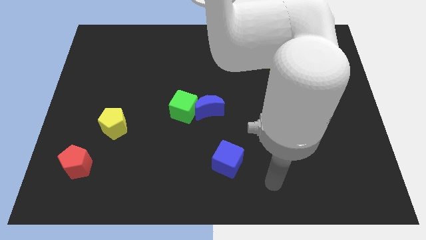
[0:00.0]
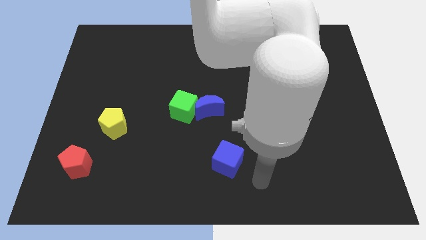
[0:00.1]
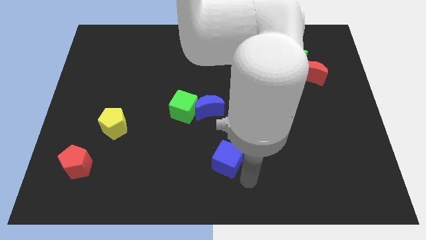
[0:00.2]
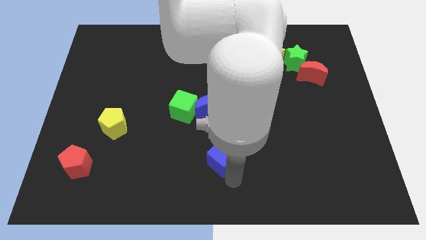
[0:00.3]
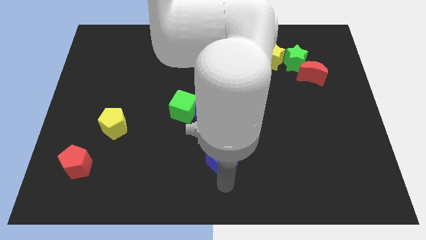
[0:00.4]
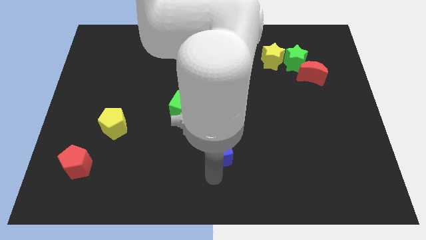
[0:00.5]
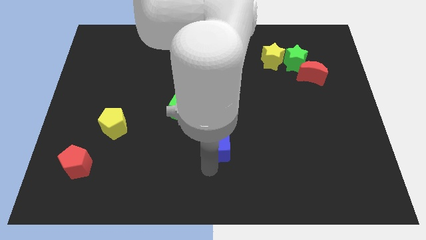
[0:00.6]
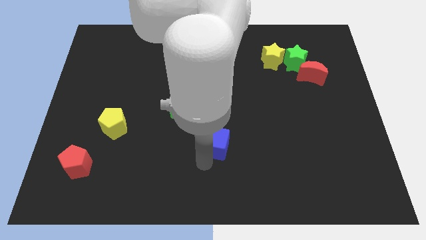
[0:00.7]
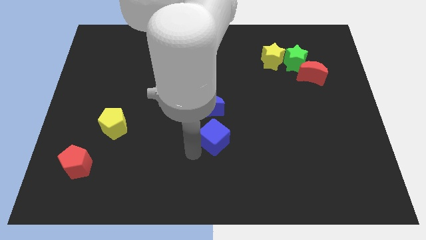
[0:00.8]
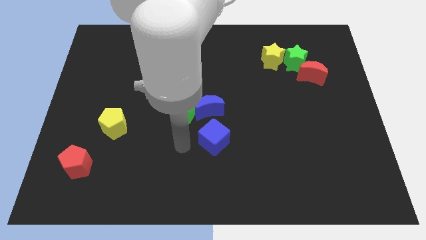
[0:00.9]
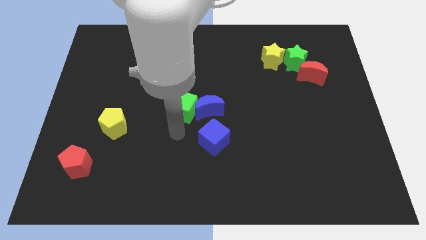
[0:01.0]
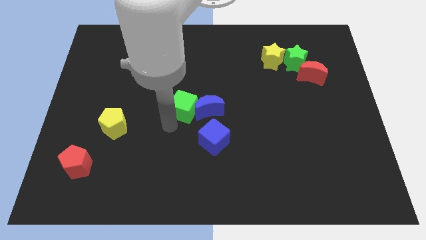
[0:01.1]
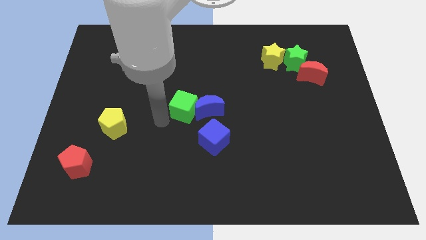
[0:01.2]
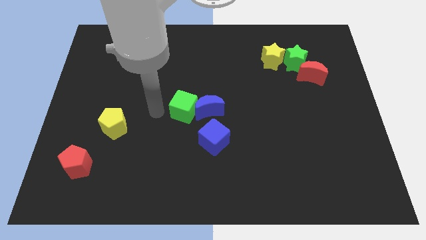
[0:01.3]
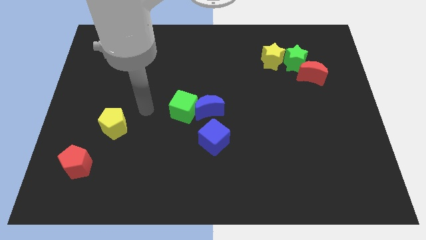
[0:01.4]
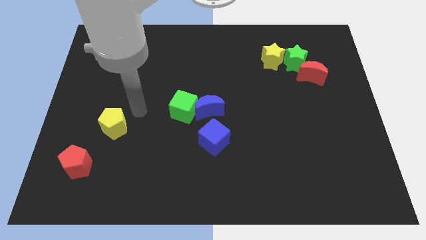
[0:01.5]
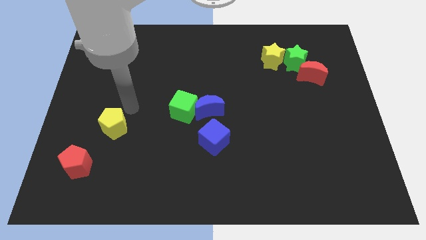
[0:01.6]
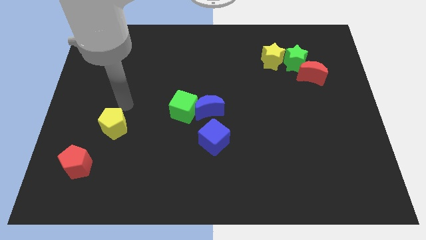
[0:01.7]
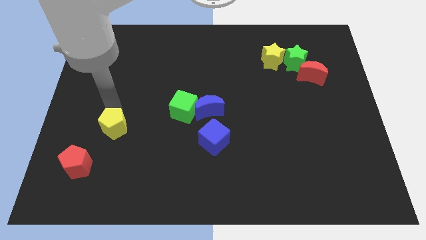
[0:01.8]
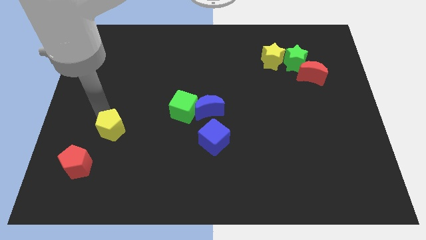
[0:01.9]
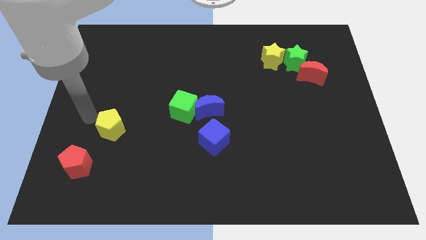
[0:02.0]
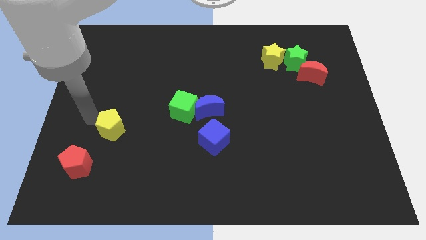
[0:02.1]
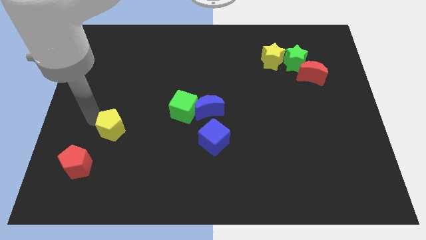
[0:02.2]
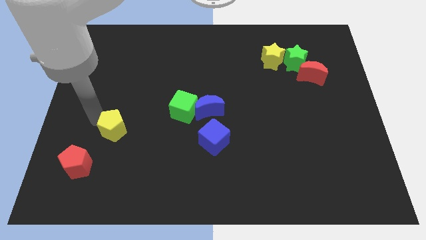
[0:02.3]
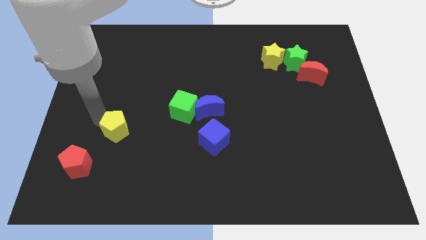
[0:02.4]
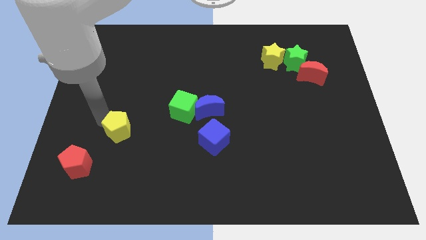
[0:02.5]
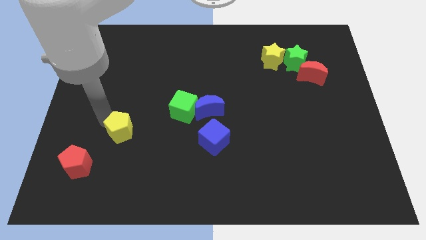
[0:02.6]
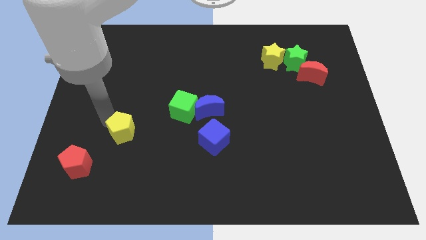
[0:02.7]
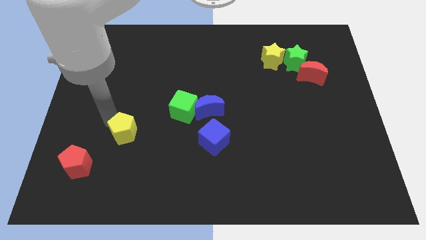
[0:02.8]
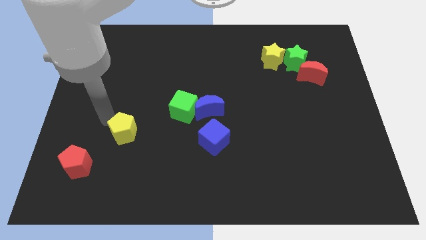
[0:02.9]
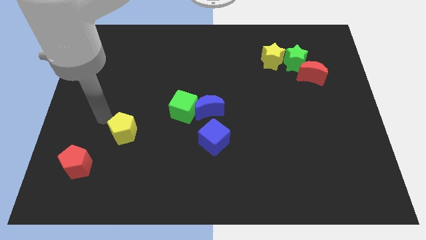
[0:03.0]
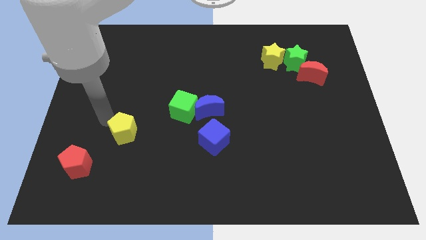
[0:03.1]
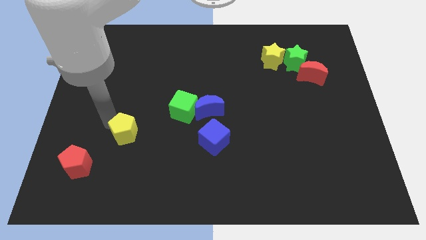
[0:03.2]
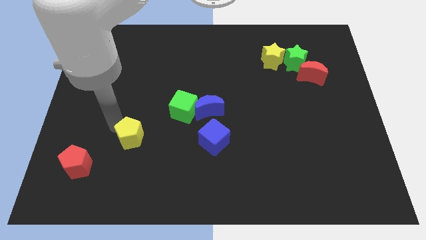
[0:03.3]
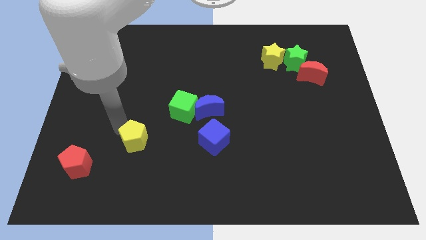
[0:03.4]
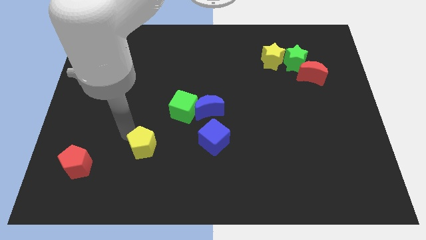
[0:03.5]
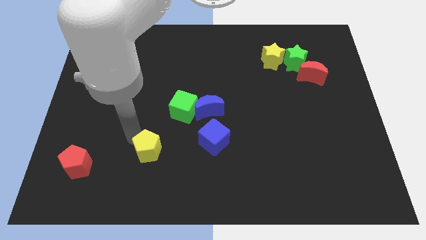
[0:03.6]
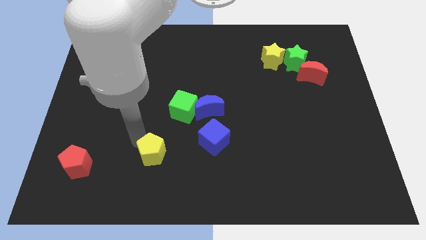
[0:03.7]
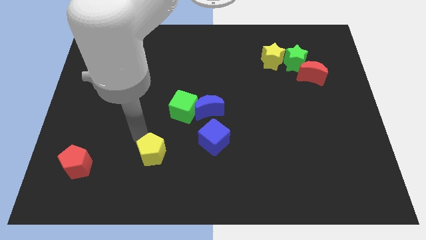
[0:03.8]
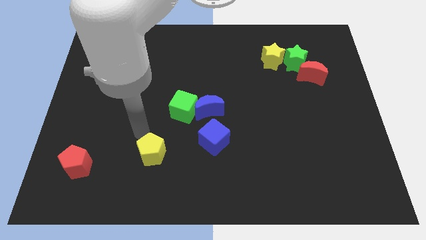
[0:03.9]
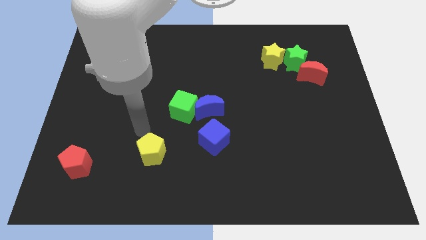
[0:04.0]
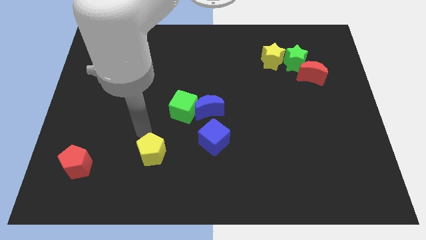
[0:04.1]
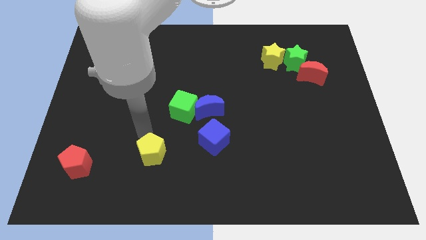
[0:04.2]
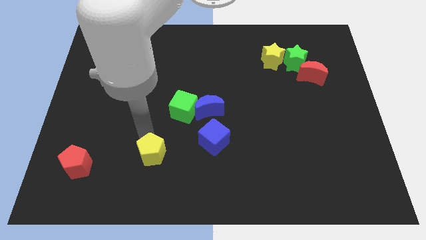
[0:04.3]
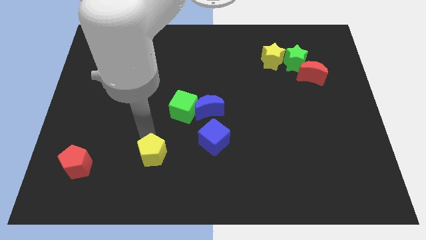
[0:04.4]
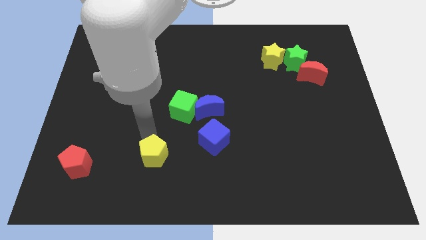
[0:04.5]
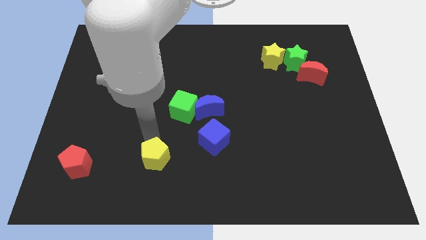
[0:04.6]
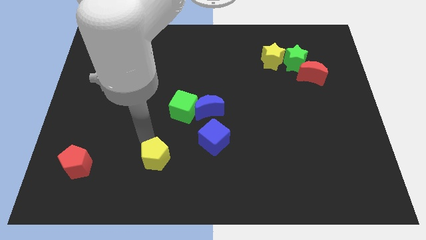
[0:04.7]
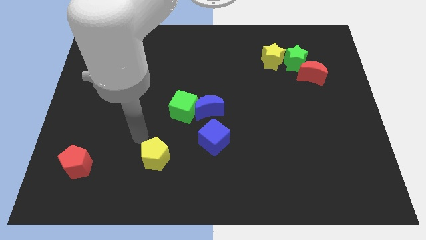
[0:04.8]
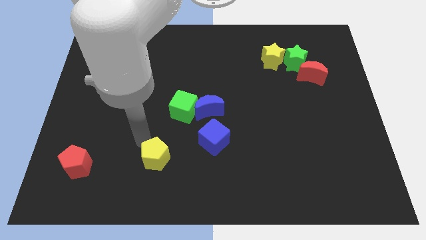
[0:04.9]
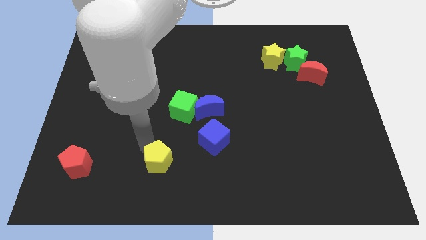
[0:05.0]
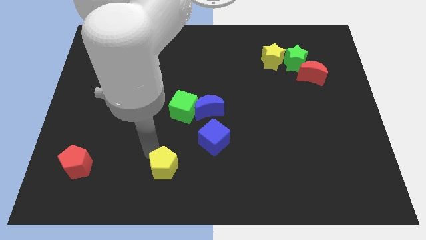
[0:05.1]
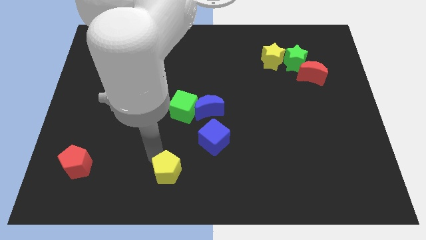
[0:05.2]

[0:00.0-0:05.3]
put the yellow pentagon to the bottom side

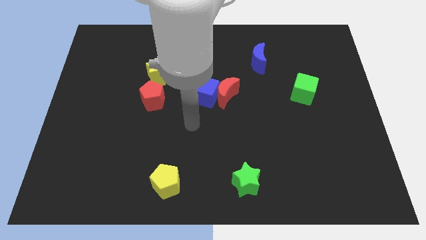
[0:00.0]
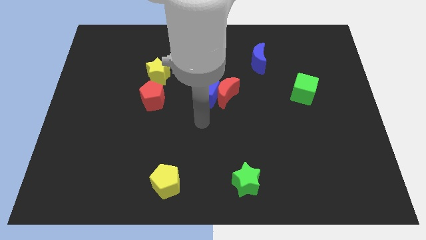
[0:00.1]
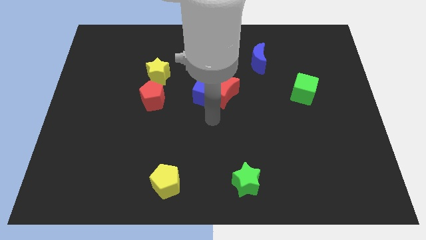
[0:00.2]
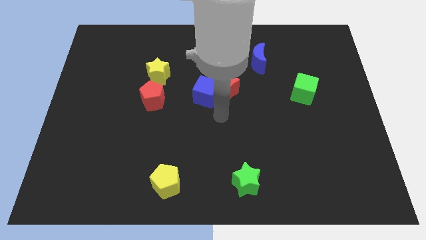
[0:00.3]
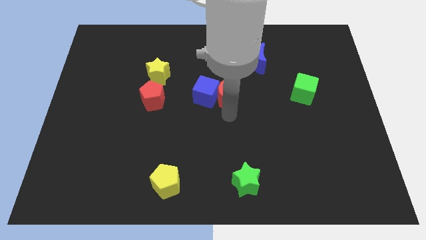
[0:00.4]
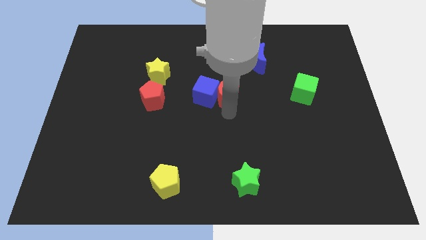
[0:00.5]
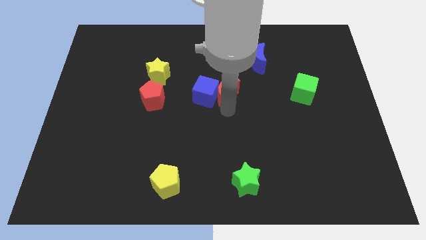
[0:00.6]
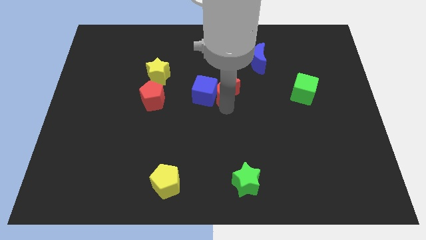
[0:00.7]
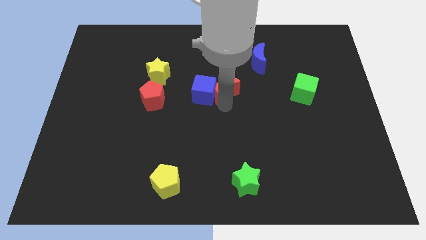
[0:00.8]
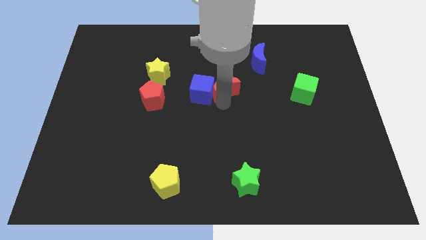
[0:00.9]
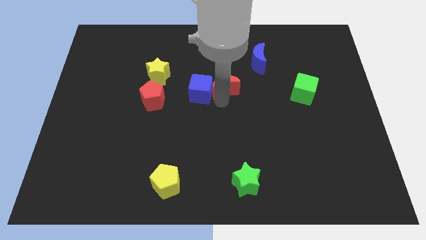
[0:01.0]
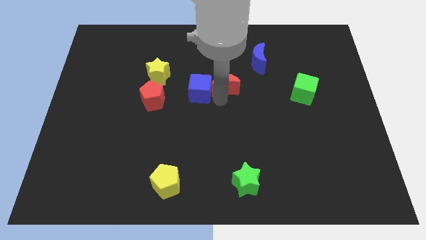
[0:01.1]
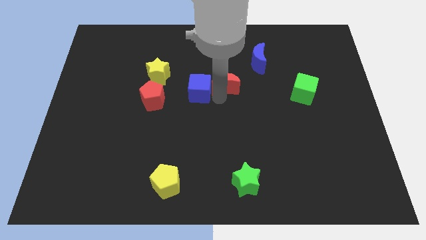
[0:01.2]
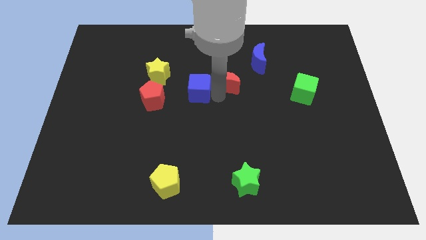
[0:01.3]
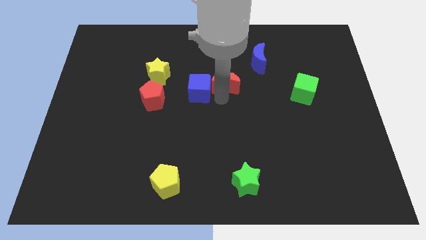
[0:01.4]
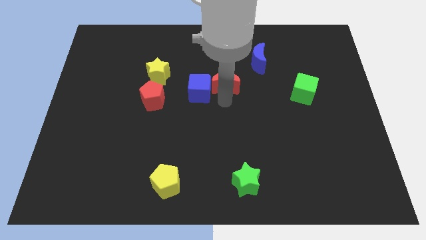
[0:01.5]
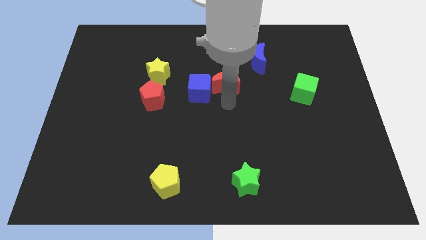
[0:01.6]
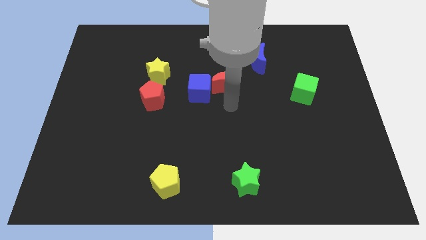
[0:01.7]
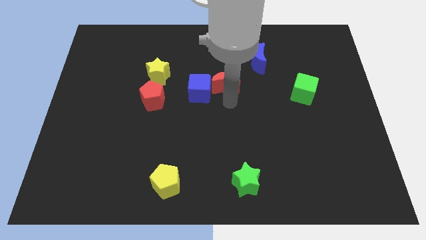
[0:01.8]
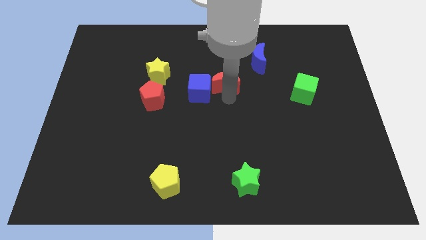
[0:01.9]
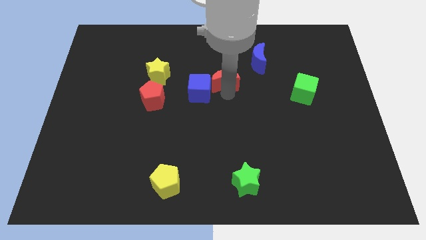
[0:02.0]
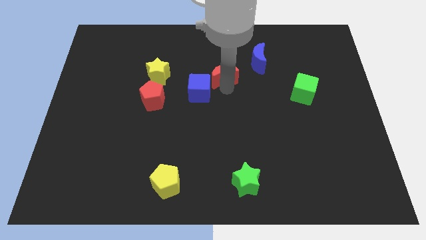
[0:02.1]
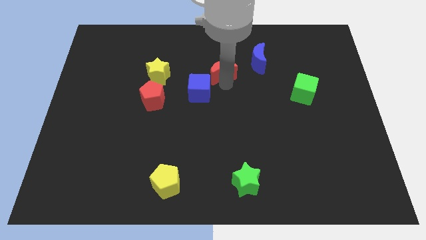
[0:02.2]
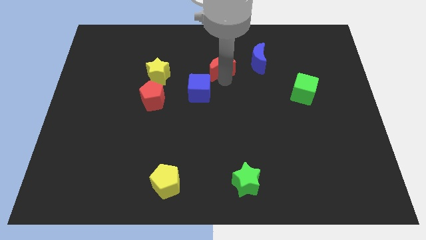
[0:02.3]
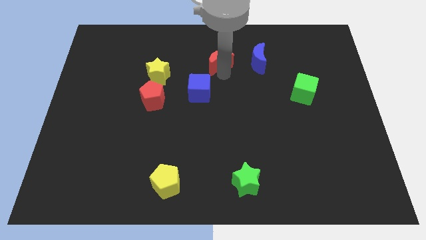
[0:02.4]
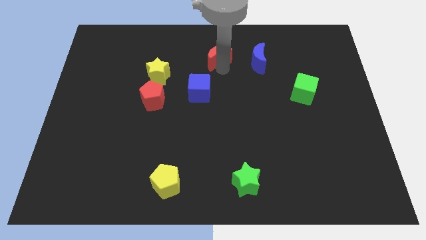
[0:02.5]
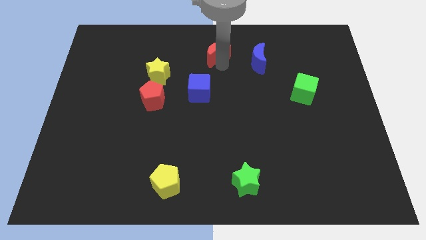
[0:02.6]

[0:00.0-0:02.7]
put the red moon to the top side
